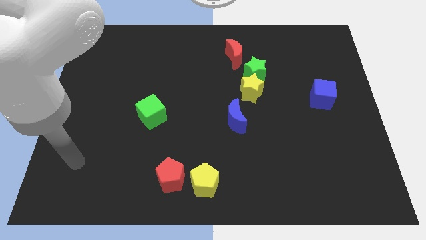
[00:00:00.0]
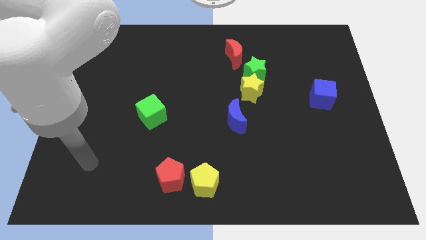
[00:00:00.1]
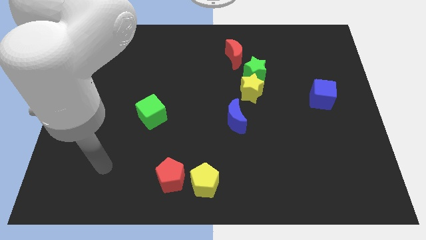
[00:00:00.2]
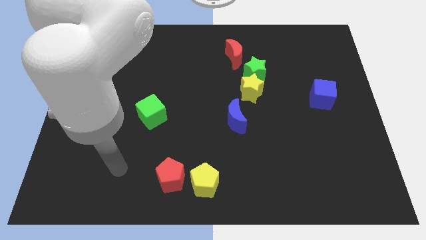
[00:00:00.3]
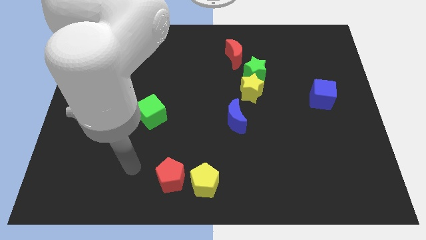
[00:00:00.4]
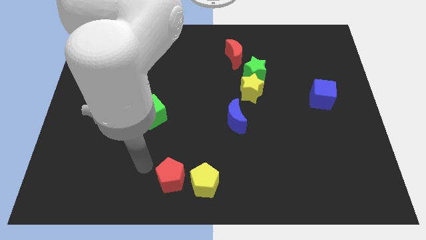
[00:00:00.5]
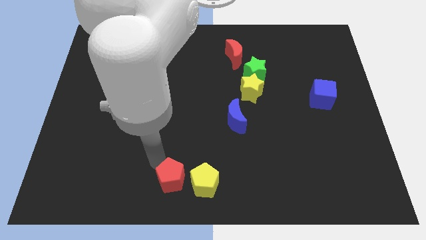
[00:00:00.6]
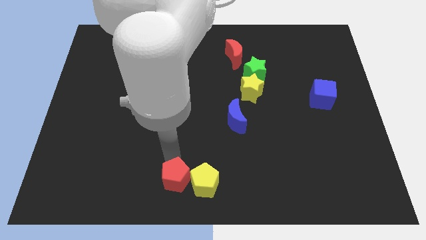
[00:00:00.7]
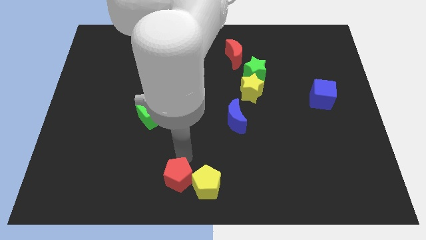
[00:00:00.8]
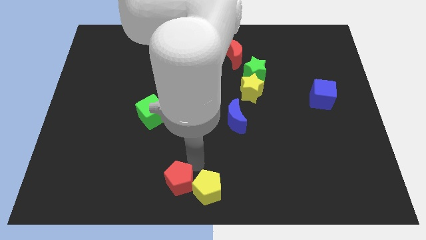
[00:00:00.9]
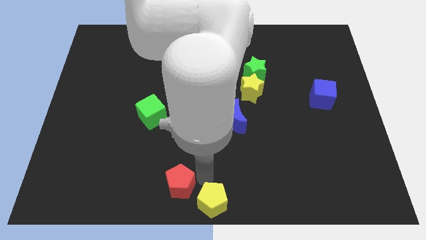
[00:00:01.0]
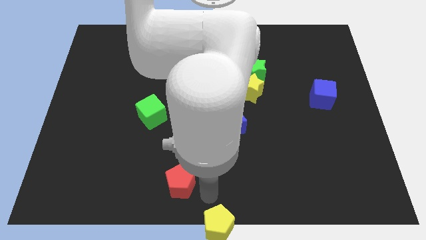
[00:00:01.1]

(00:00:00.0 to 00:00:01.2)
move the red pentagon away from the yellow pentagon

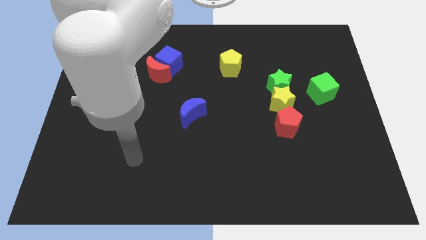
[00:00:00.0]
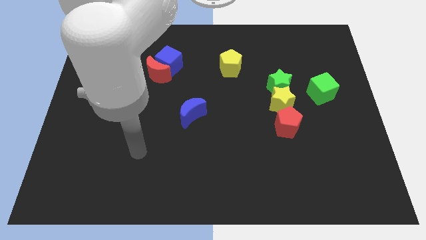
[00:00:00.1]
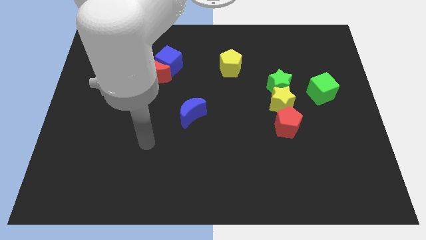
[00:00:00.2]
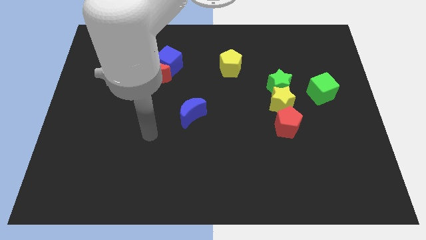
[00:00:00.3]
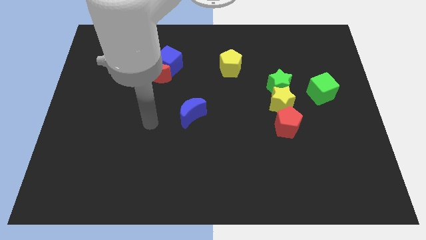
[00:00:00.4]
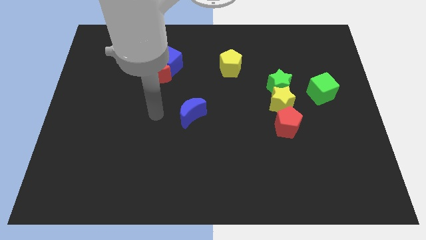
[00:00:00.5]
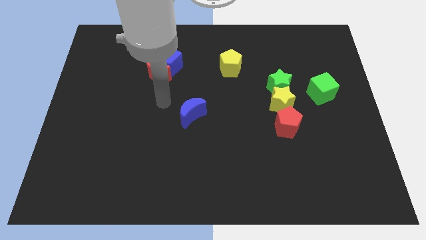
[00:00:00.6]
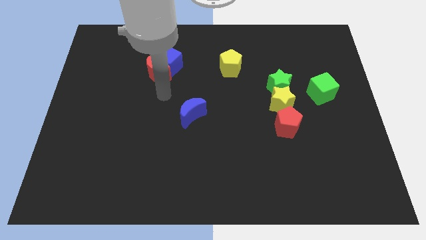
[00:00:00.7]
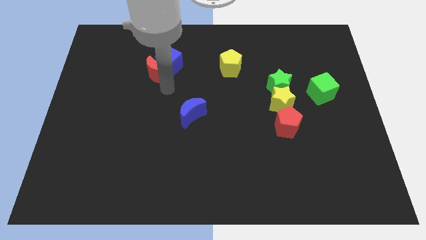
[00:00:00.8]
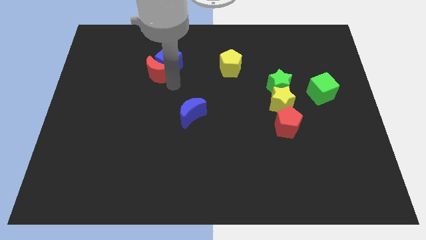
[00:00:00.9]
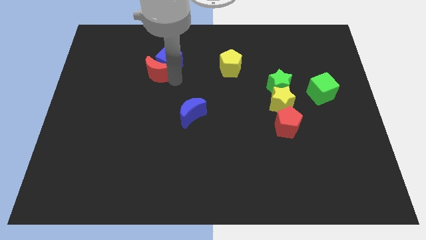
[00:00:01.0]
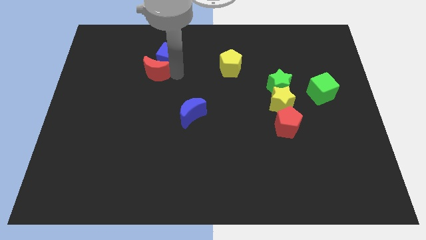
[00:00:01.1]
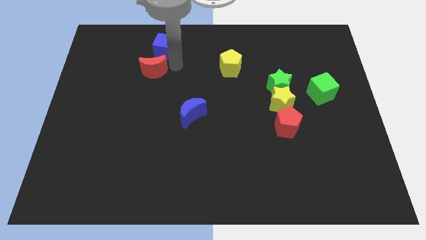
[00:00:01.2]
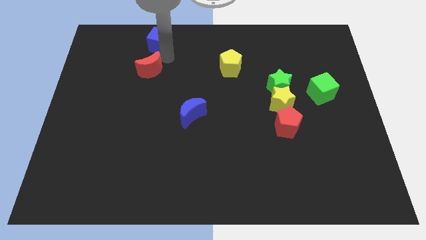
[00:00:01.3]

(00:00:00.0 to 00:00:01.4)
pull the red moon apart from the blue cube

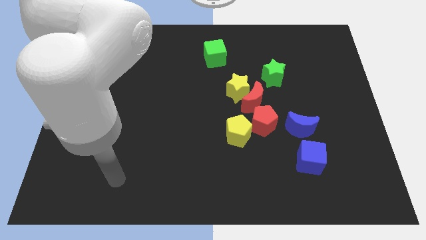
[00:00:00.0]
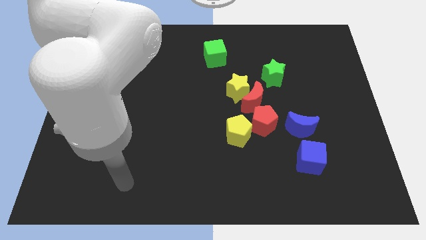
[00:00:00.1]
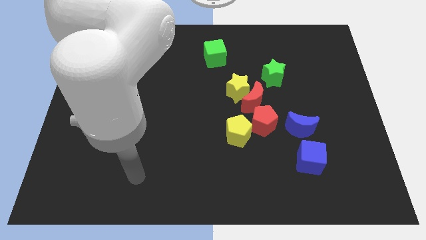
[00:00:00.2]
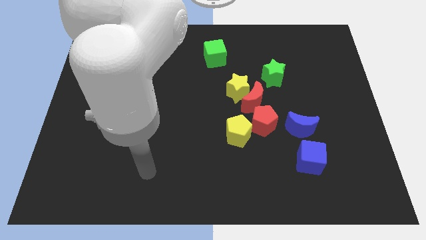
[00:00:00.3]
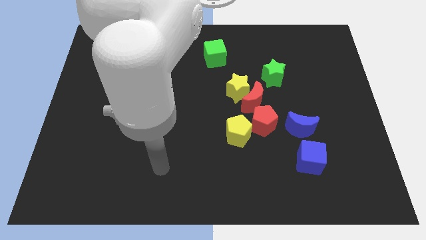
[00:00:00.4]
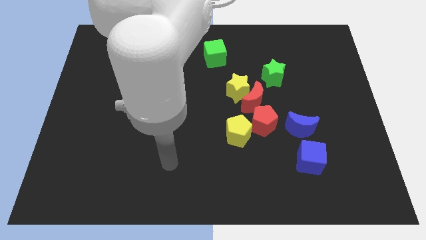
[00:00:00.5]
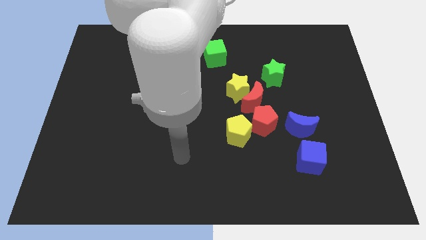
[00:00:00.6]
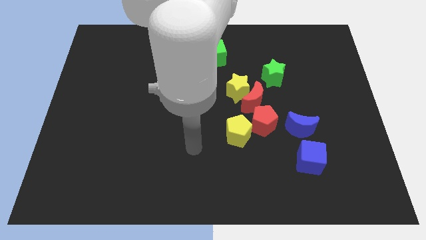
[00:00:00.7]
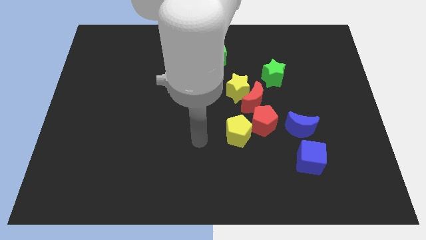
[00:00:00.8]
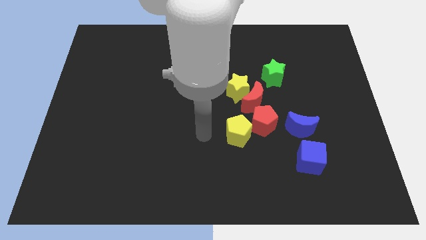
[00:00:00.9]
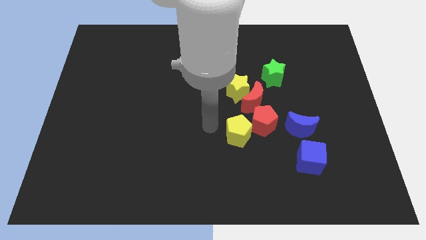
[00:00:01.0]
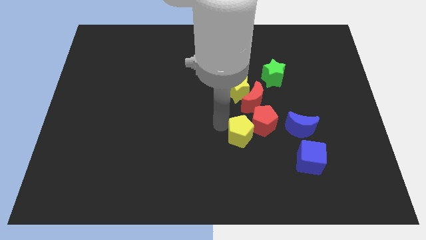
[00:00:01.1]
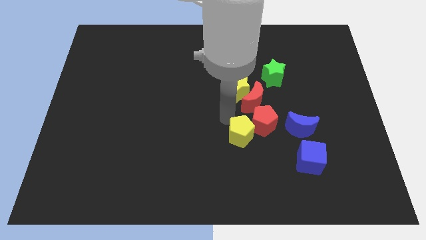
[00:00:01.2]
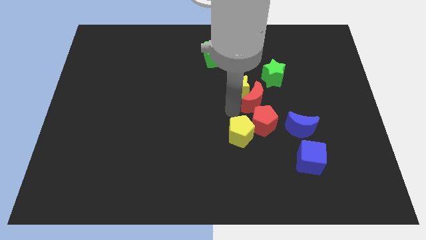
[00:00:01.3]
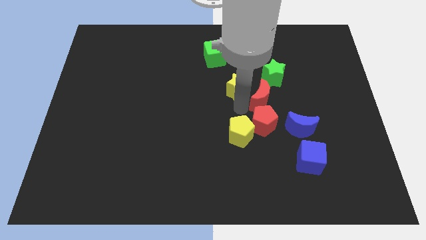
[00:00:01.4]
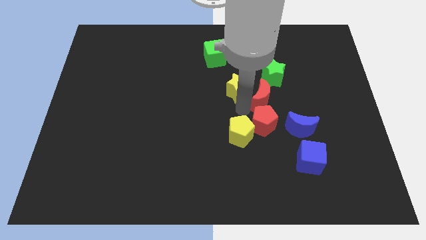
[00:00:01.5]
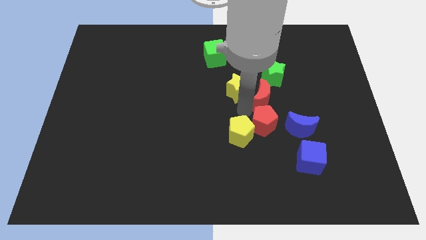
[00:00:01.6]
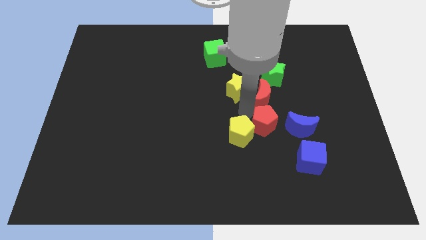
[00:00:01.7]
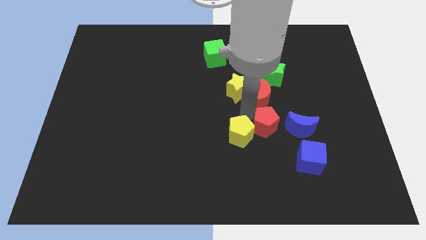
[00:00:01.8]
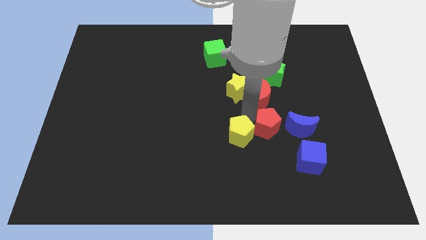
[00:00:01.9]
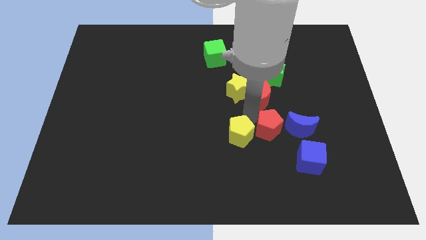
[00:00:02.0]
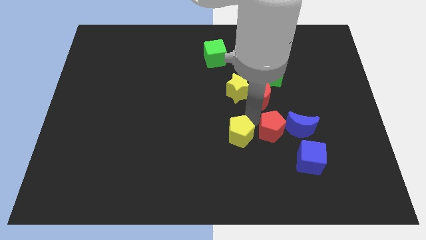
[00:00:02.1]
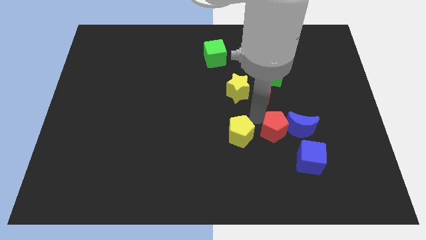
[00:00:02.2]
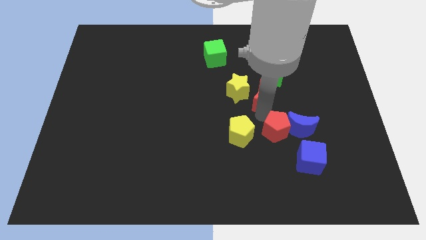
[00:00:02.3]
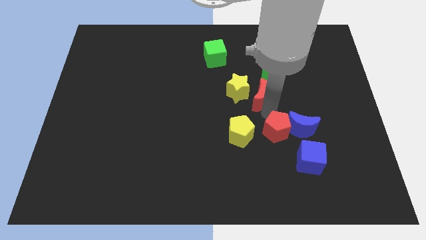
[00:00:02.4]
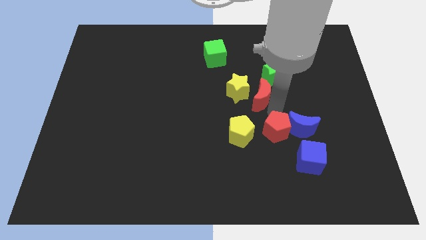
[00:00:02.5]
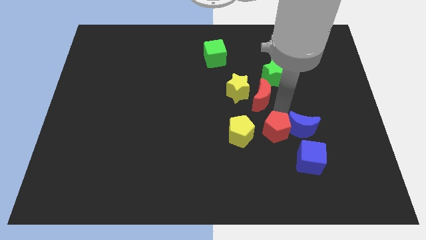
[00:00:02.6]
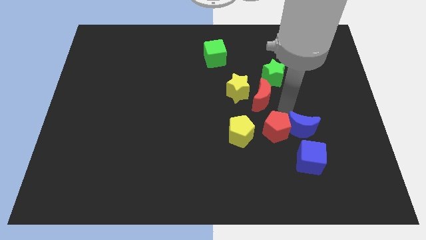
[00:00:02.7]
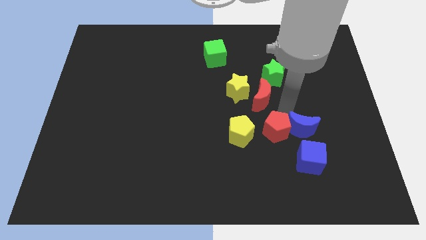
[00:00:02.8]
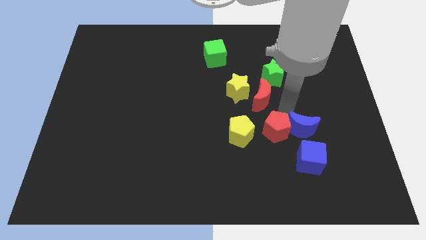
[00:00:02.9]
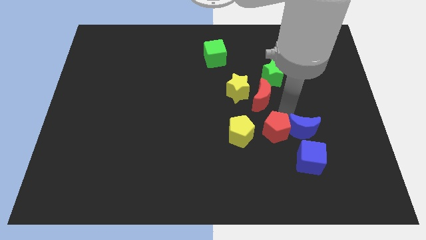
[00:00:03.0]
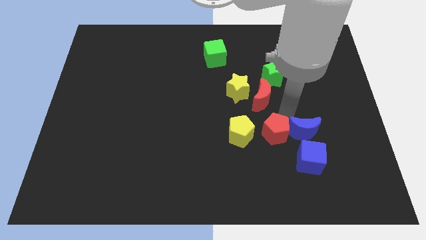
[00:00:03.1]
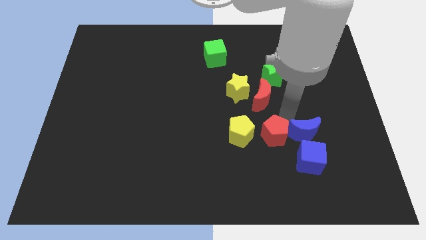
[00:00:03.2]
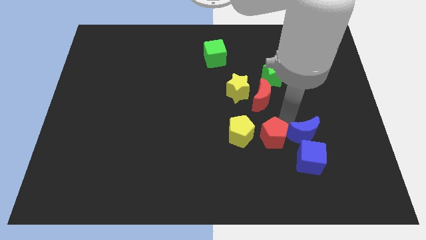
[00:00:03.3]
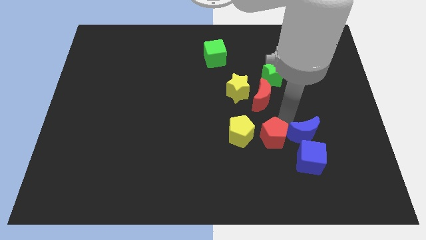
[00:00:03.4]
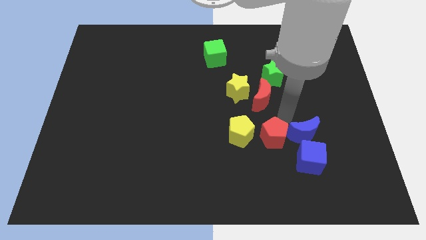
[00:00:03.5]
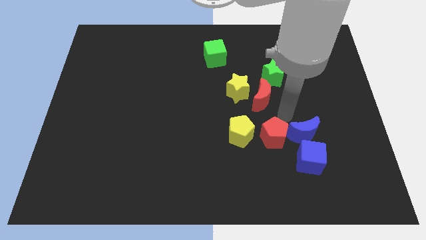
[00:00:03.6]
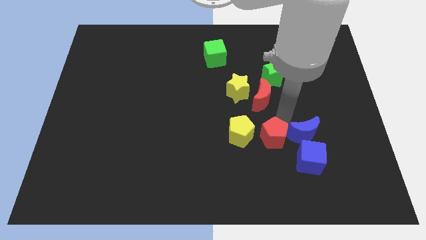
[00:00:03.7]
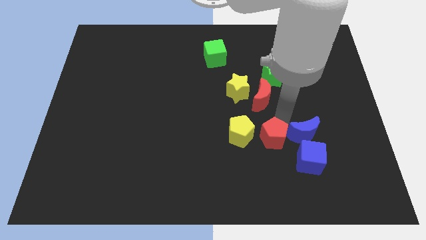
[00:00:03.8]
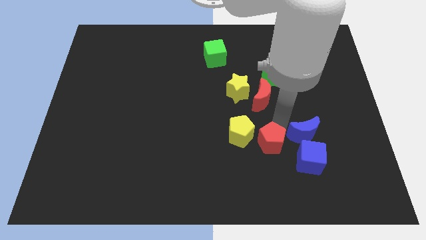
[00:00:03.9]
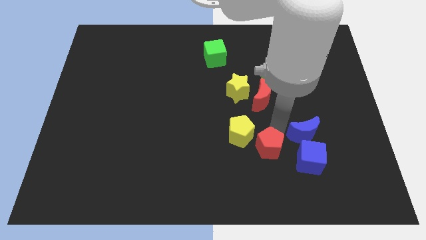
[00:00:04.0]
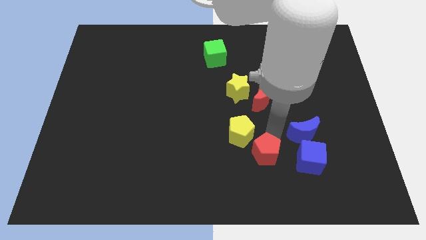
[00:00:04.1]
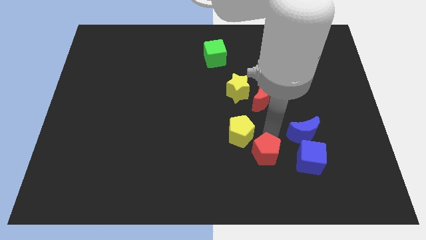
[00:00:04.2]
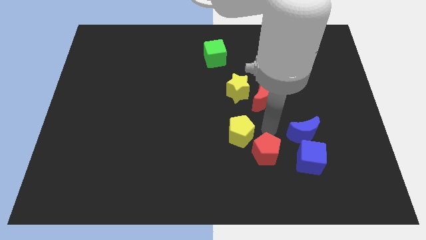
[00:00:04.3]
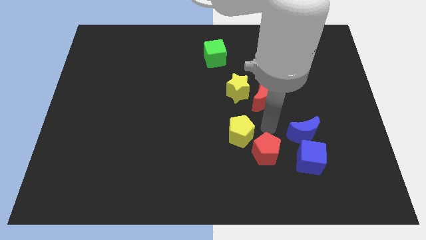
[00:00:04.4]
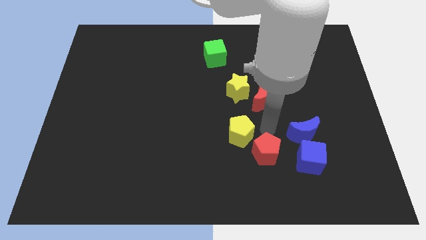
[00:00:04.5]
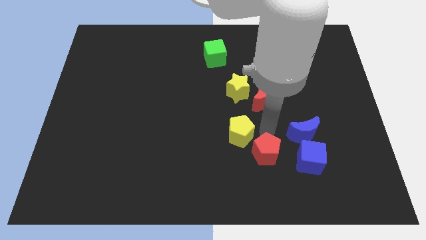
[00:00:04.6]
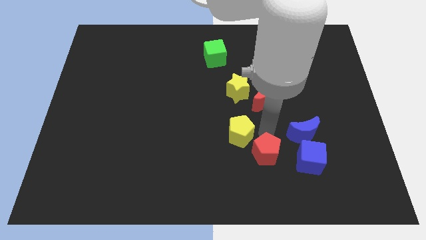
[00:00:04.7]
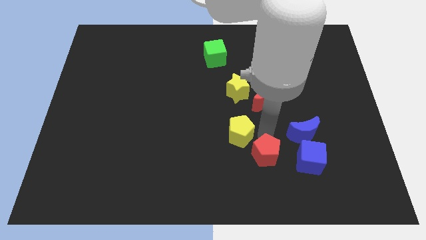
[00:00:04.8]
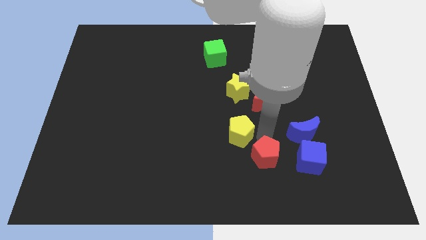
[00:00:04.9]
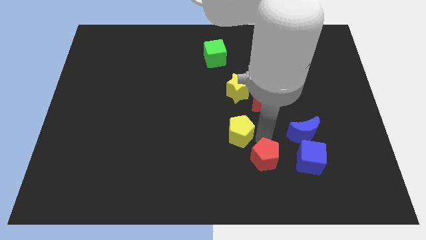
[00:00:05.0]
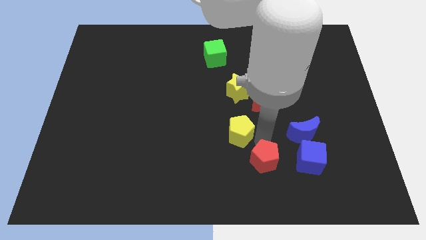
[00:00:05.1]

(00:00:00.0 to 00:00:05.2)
move the red pentagon away from the yellow pentagon, red moon, and blue moon

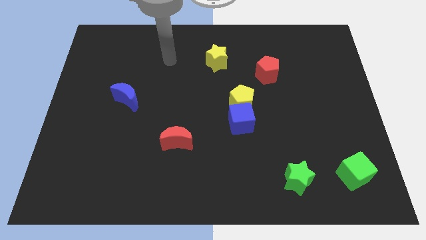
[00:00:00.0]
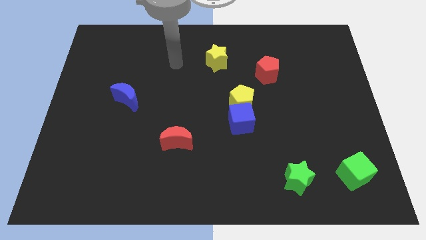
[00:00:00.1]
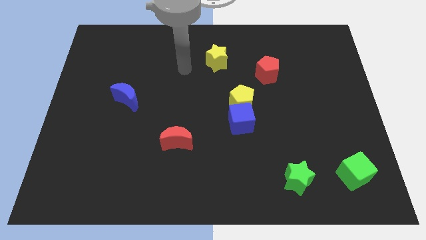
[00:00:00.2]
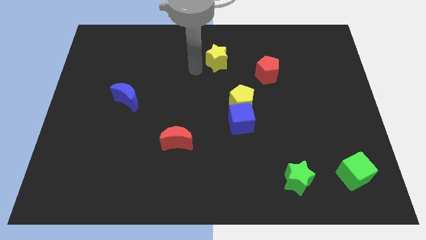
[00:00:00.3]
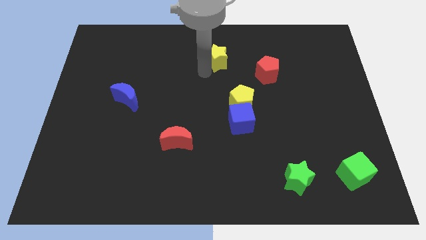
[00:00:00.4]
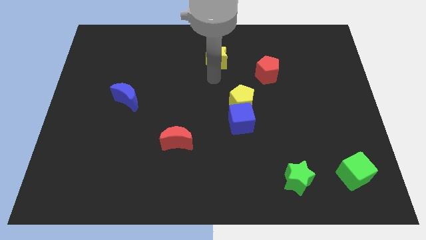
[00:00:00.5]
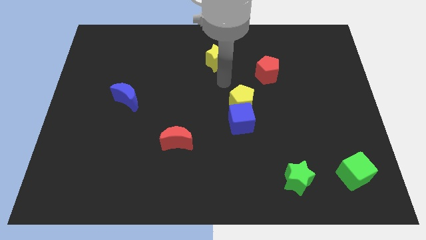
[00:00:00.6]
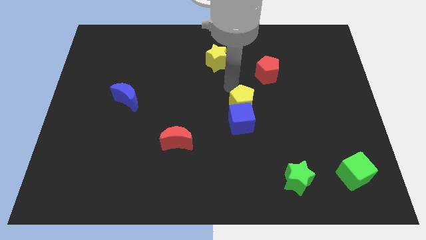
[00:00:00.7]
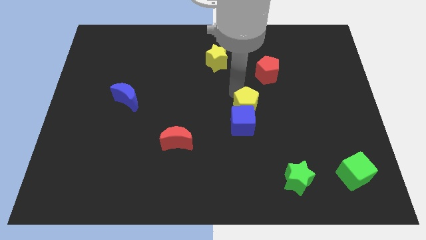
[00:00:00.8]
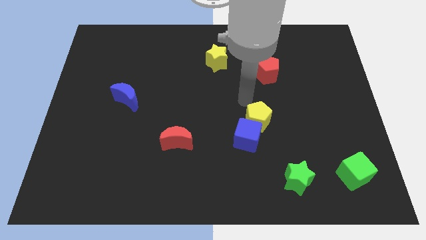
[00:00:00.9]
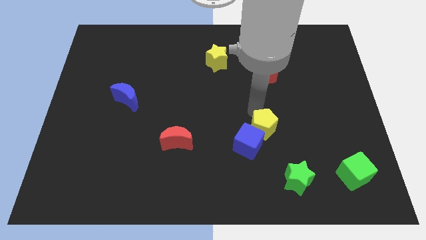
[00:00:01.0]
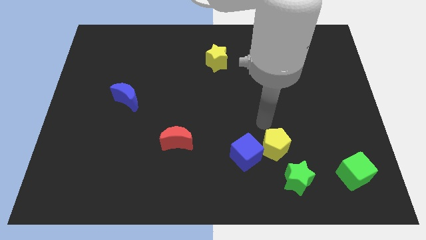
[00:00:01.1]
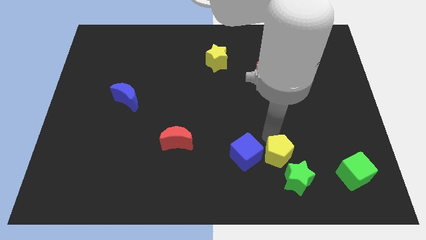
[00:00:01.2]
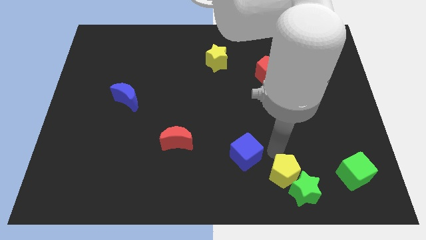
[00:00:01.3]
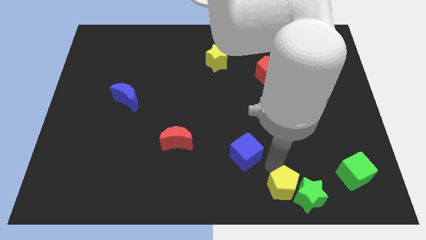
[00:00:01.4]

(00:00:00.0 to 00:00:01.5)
separate the blue cube from the yellow pentagon
